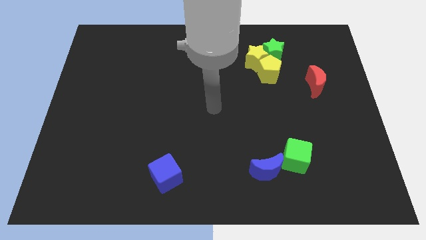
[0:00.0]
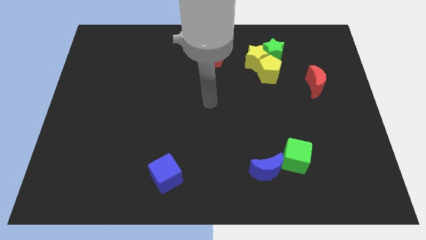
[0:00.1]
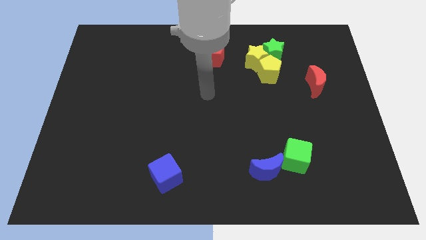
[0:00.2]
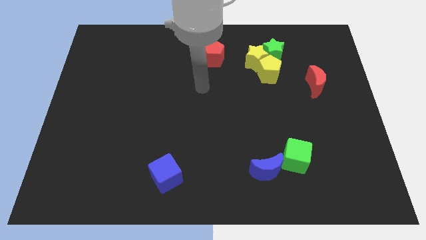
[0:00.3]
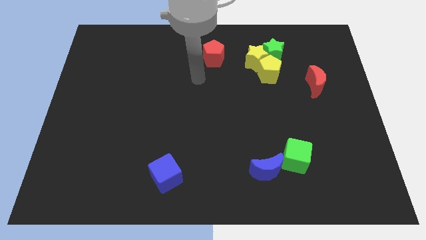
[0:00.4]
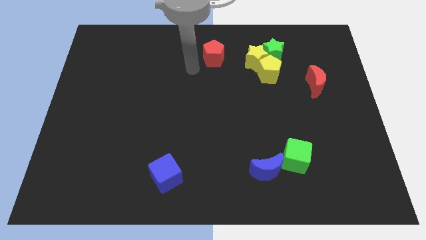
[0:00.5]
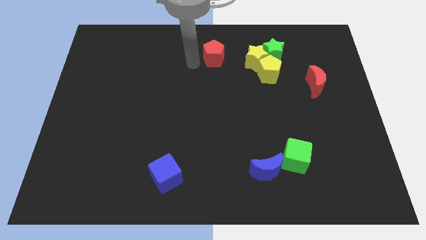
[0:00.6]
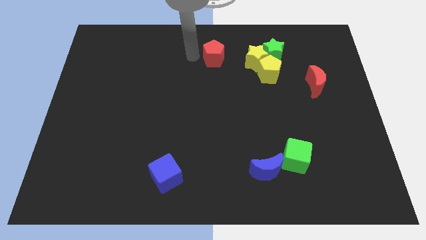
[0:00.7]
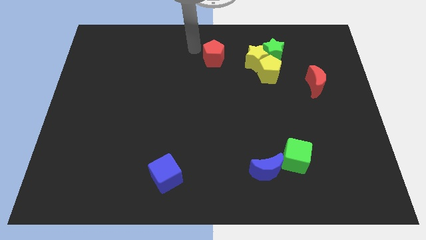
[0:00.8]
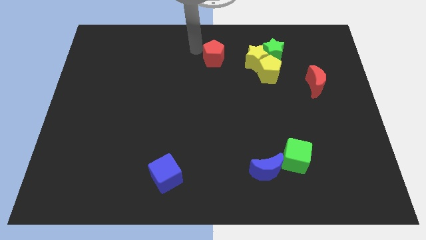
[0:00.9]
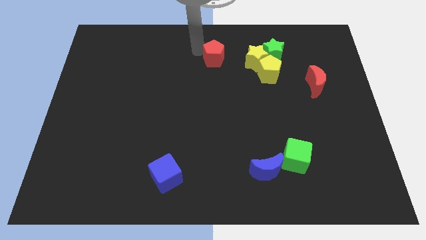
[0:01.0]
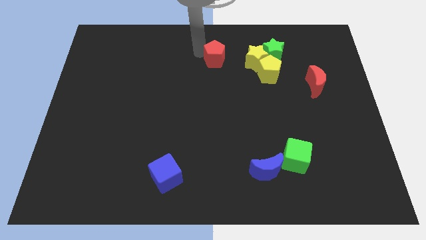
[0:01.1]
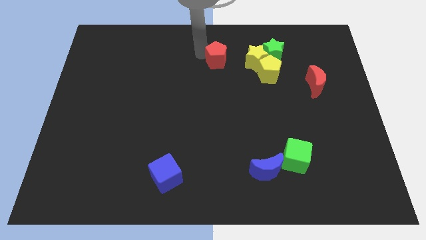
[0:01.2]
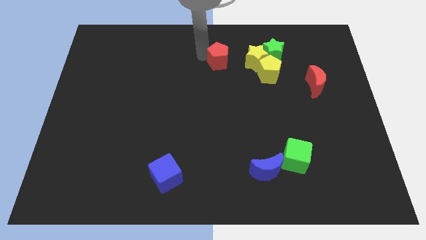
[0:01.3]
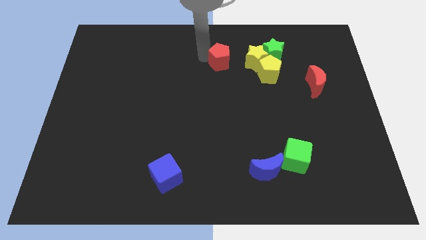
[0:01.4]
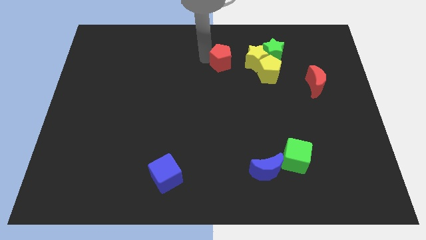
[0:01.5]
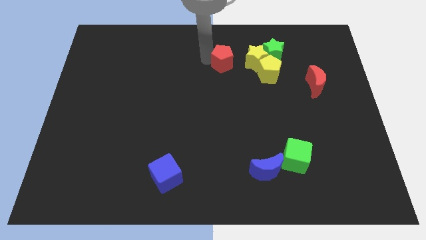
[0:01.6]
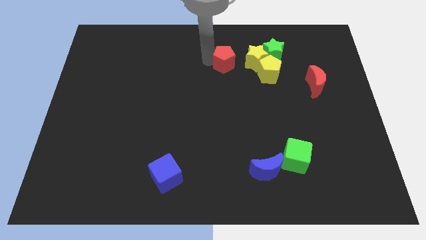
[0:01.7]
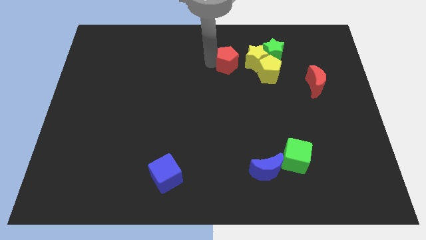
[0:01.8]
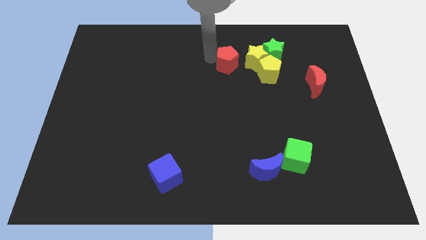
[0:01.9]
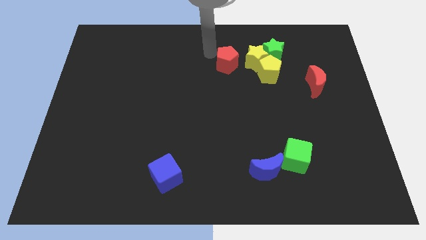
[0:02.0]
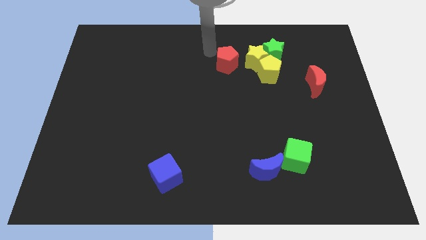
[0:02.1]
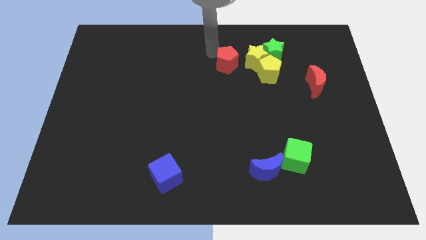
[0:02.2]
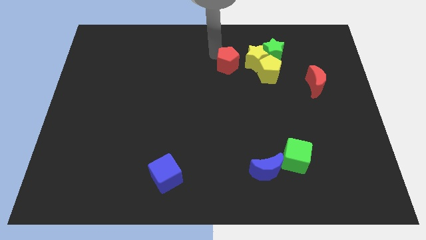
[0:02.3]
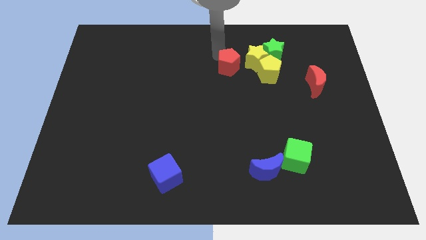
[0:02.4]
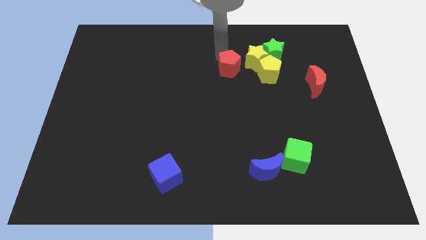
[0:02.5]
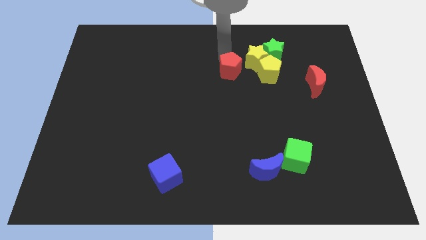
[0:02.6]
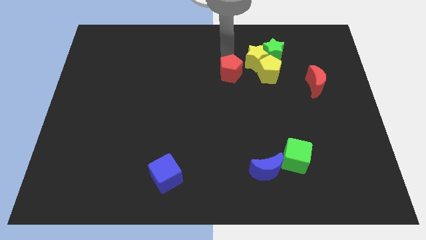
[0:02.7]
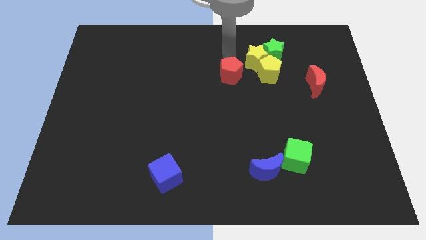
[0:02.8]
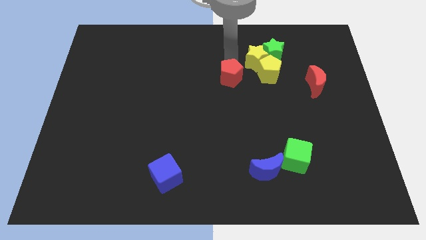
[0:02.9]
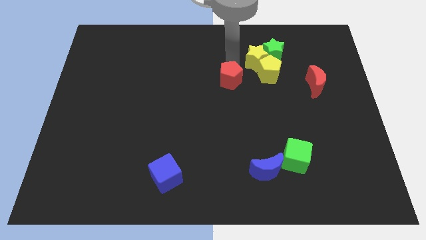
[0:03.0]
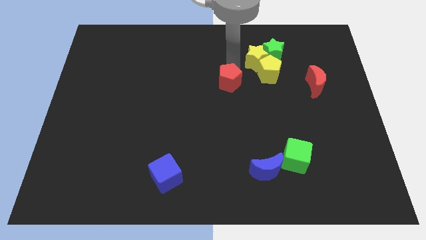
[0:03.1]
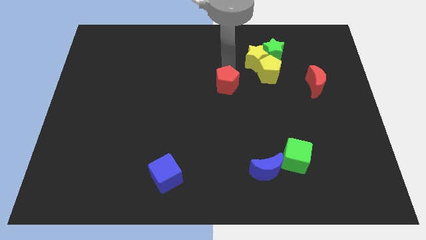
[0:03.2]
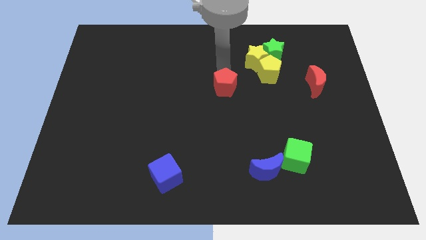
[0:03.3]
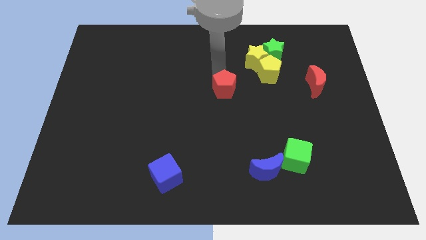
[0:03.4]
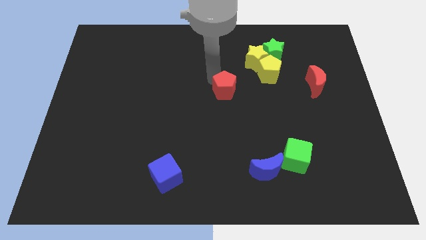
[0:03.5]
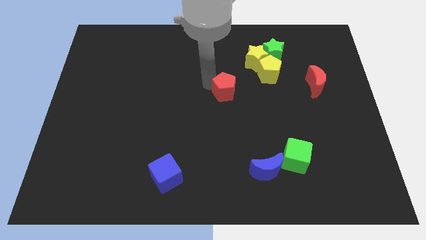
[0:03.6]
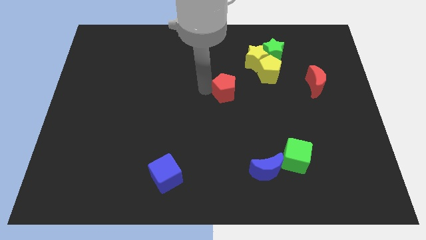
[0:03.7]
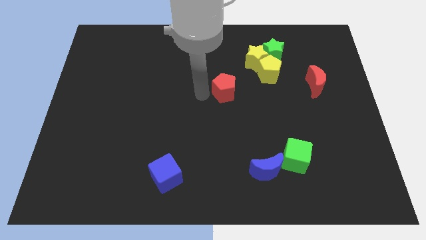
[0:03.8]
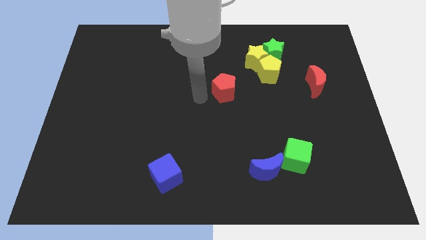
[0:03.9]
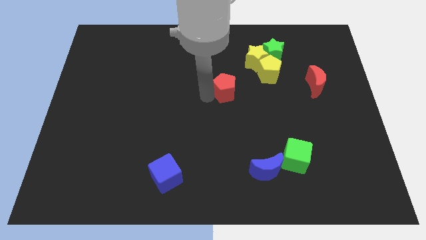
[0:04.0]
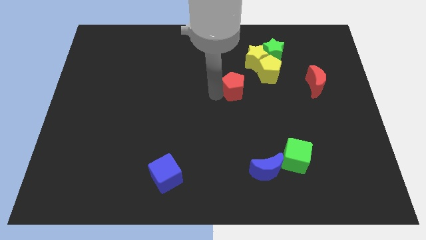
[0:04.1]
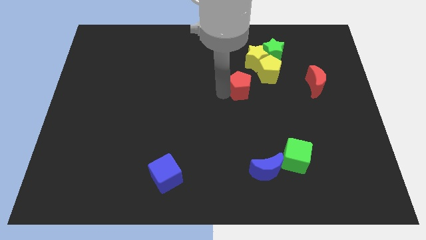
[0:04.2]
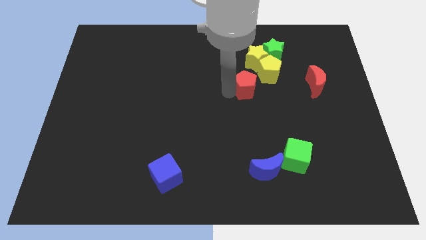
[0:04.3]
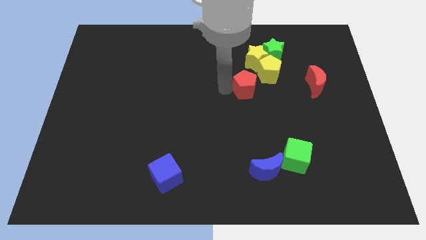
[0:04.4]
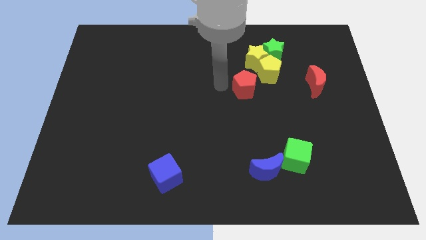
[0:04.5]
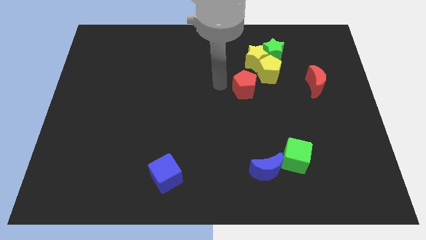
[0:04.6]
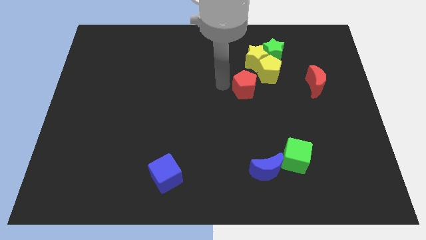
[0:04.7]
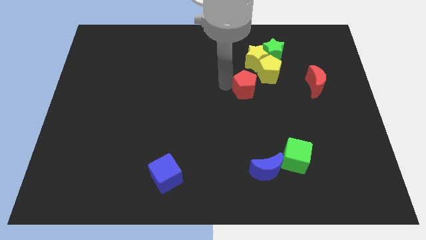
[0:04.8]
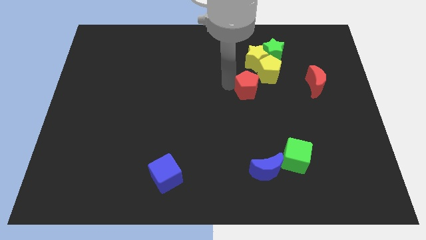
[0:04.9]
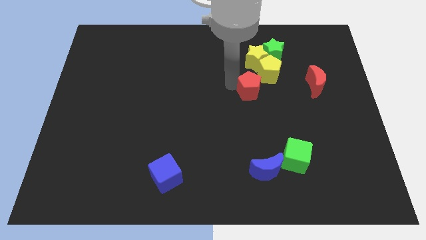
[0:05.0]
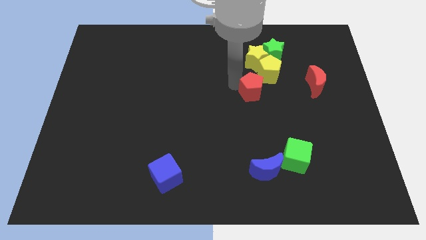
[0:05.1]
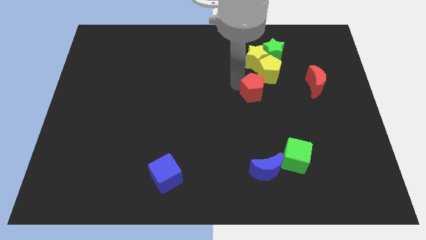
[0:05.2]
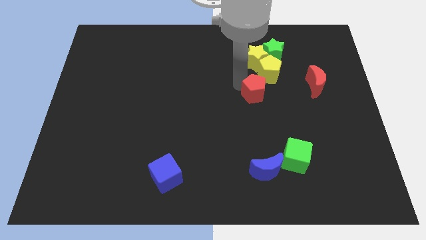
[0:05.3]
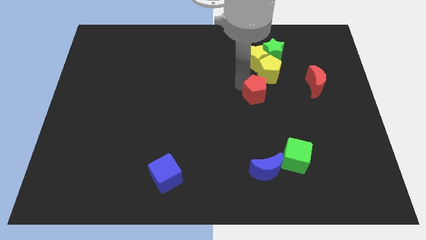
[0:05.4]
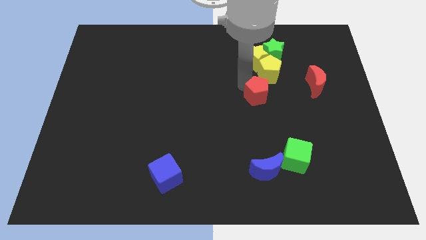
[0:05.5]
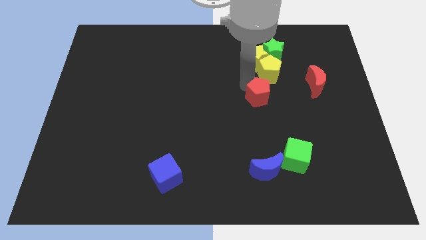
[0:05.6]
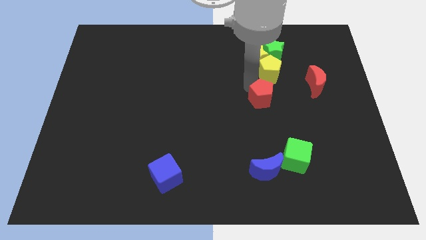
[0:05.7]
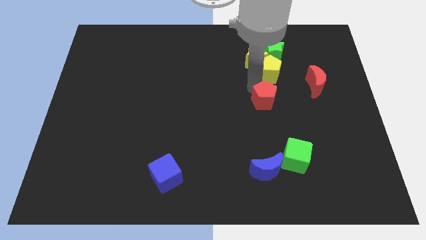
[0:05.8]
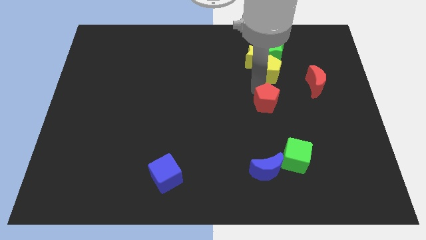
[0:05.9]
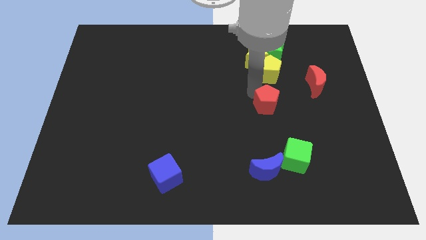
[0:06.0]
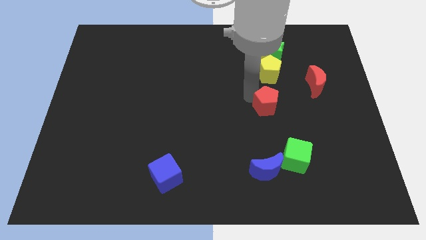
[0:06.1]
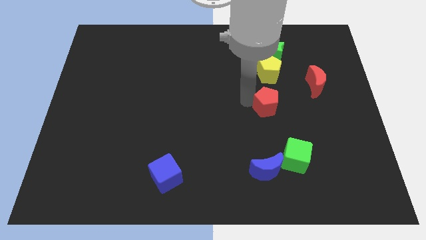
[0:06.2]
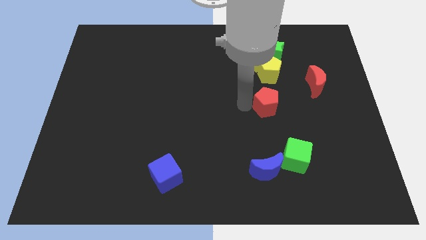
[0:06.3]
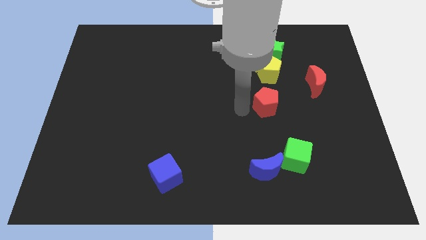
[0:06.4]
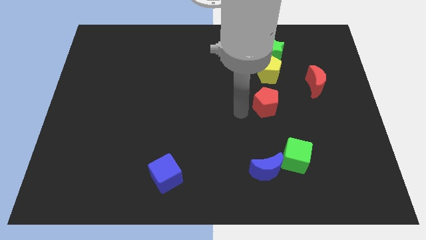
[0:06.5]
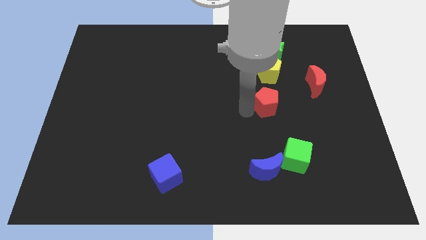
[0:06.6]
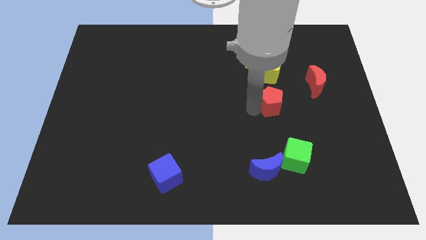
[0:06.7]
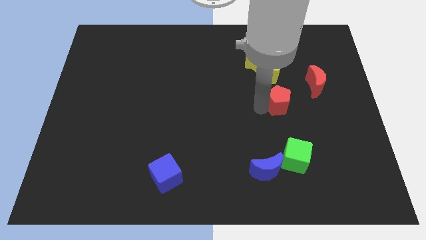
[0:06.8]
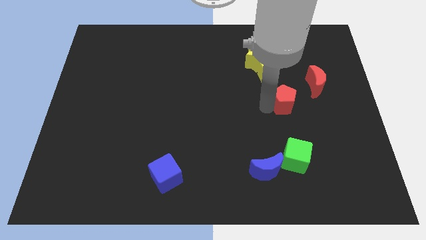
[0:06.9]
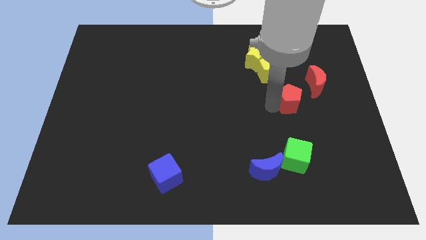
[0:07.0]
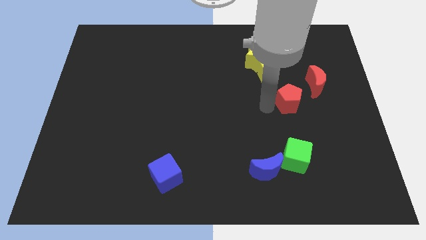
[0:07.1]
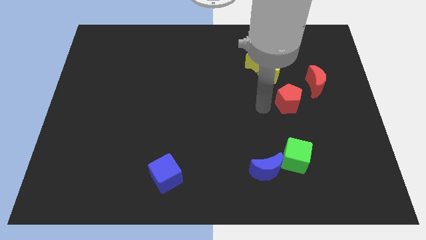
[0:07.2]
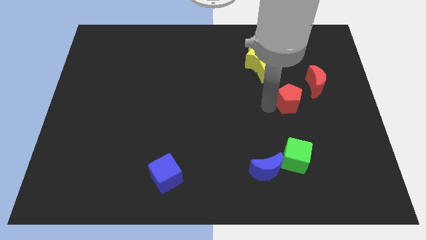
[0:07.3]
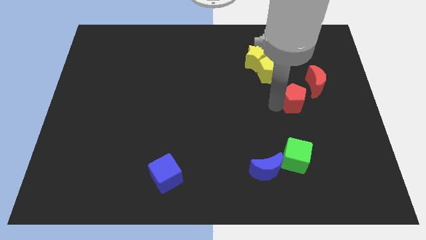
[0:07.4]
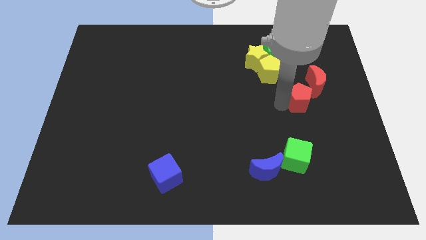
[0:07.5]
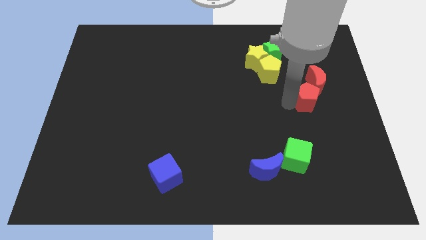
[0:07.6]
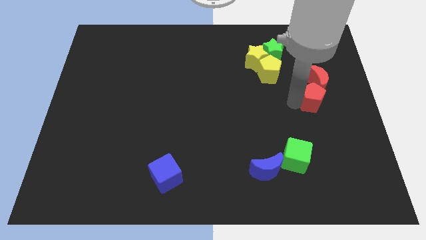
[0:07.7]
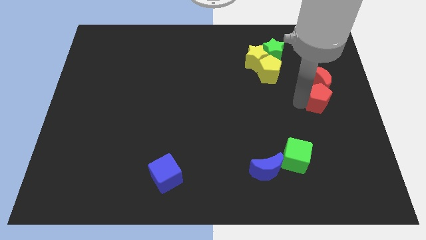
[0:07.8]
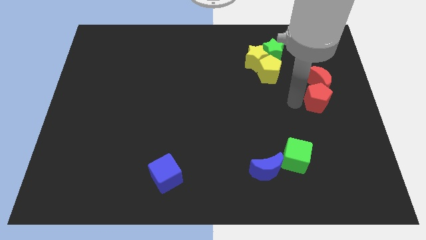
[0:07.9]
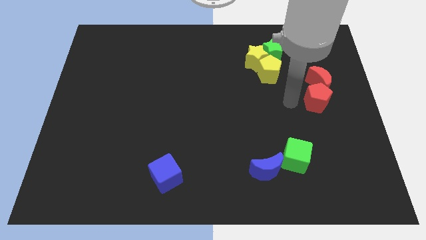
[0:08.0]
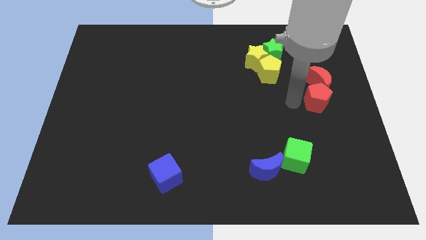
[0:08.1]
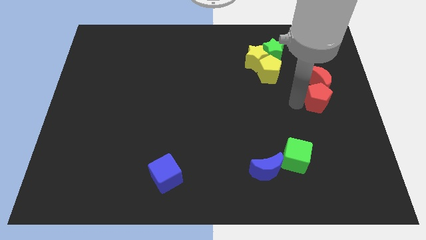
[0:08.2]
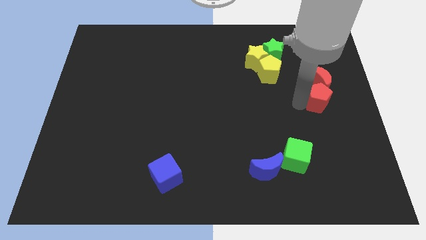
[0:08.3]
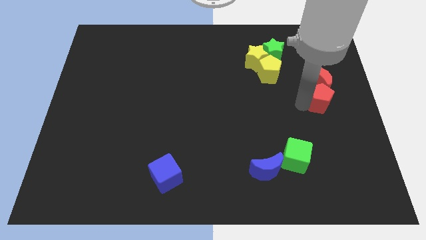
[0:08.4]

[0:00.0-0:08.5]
move the red pentagon to the center right
